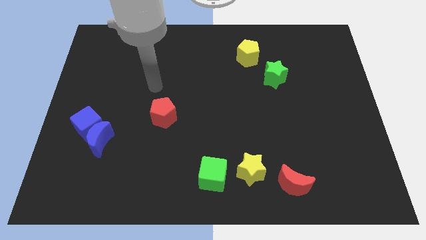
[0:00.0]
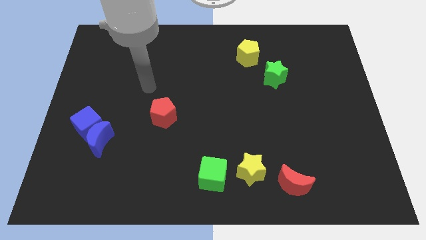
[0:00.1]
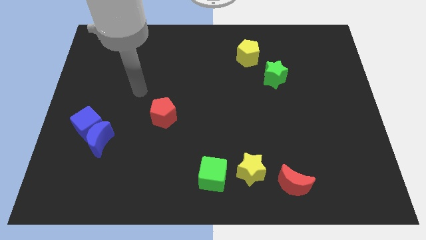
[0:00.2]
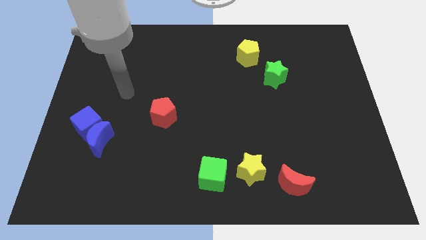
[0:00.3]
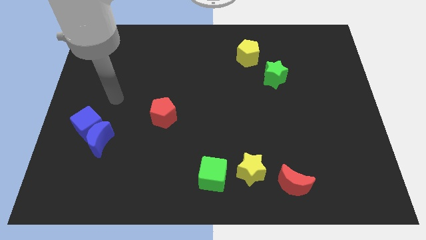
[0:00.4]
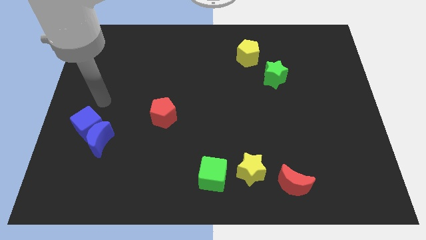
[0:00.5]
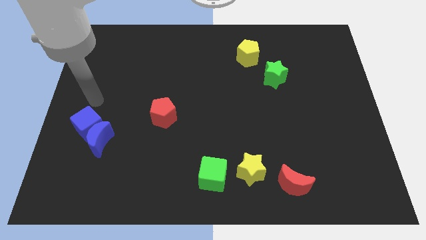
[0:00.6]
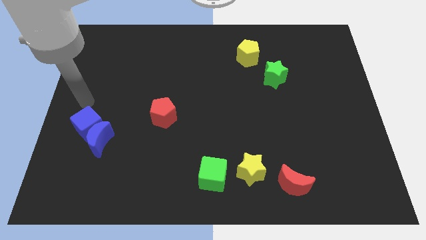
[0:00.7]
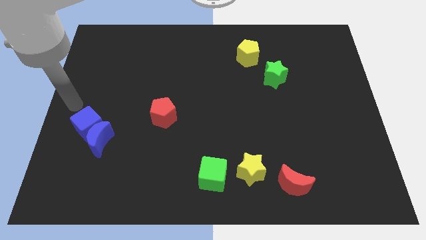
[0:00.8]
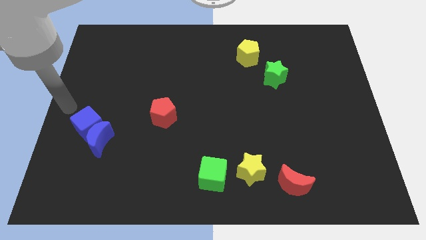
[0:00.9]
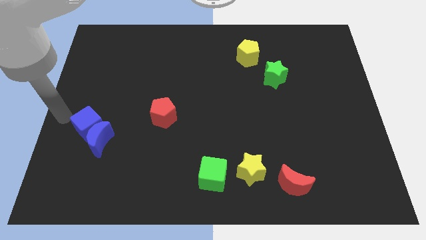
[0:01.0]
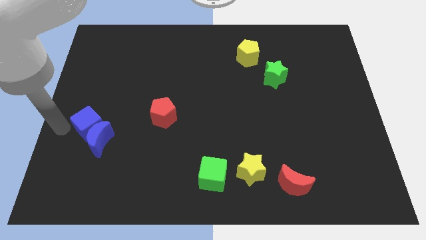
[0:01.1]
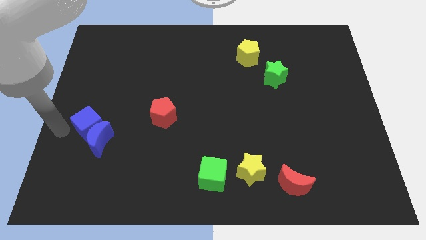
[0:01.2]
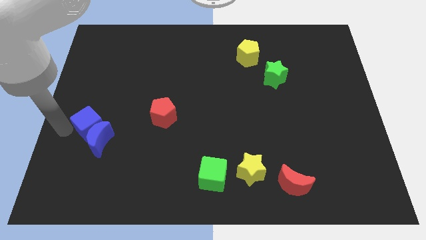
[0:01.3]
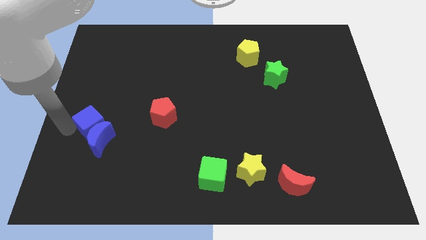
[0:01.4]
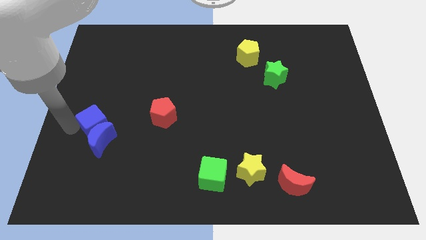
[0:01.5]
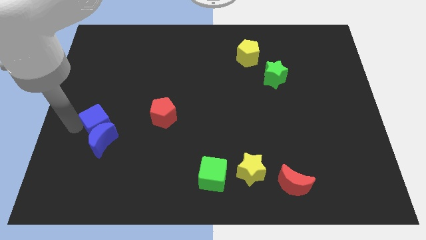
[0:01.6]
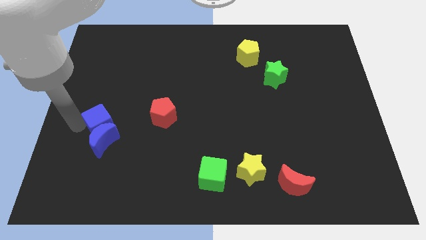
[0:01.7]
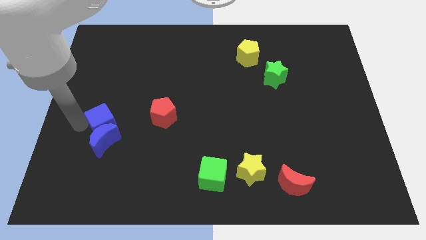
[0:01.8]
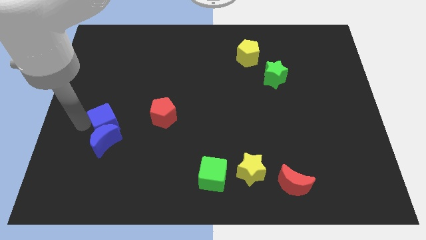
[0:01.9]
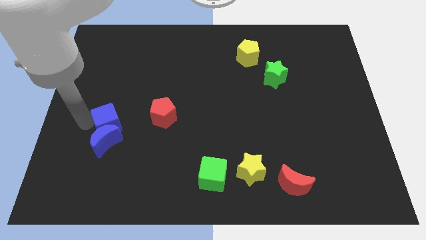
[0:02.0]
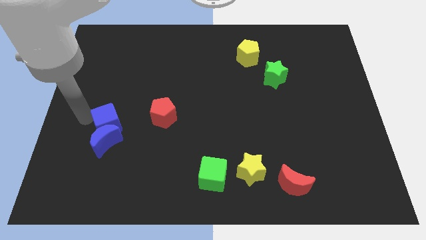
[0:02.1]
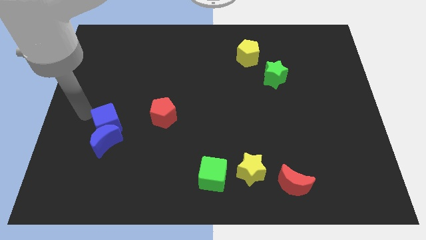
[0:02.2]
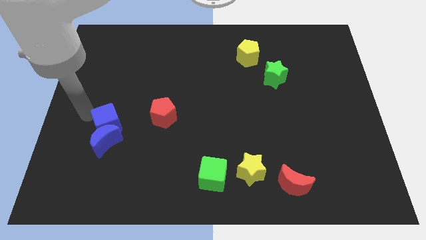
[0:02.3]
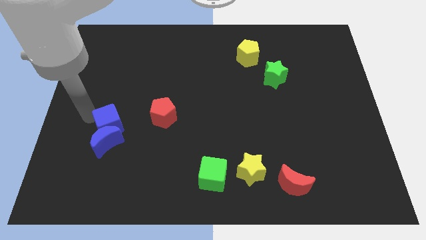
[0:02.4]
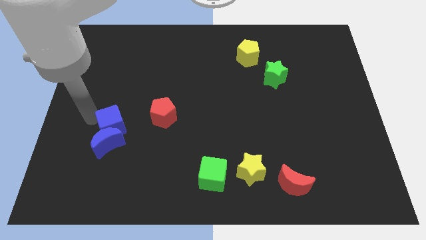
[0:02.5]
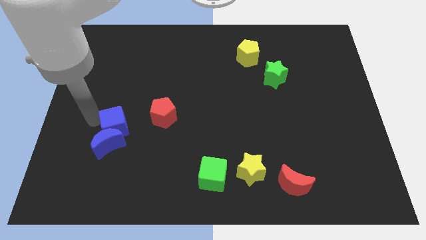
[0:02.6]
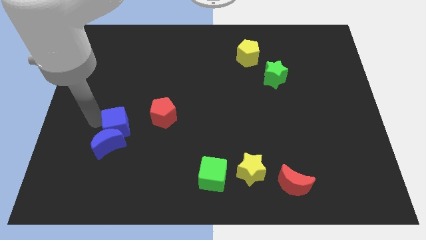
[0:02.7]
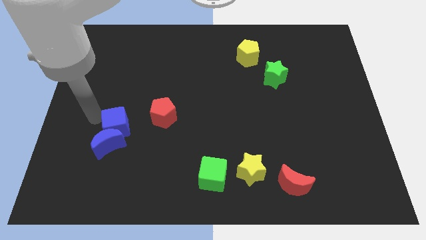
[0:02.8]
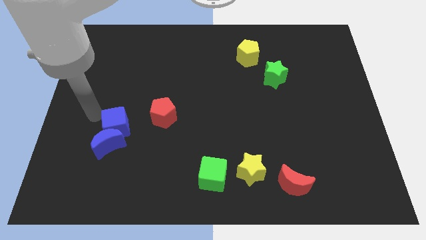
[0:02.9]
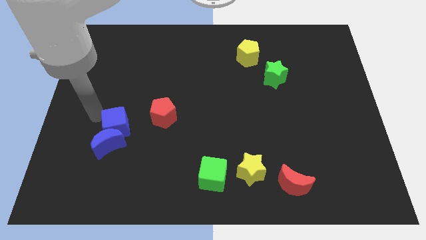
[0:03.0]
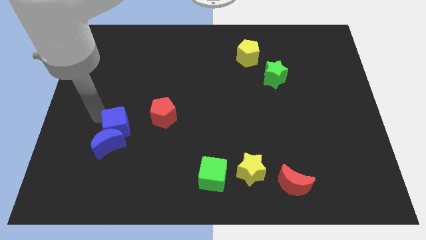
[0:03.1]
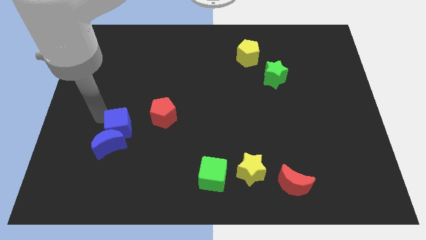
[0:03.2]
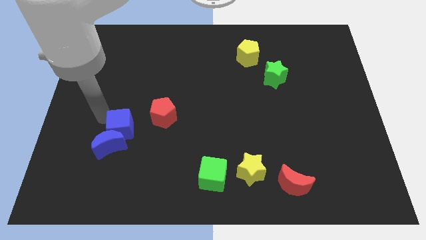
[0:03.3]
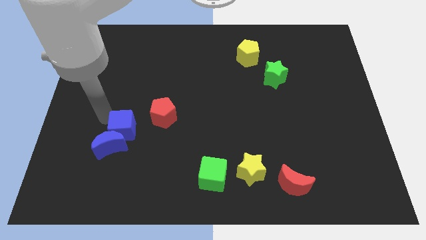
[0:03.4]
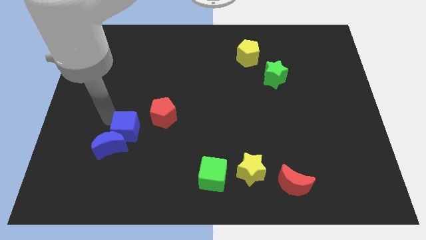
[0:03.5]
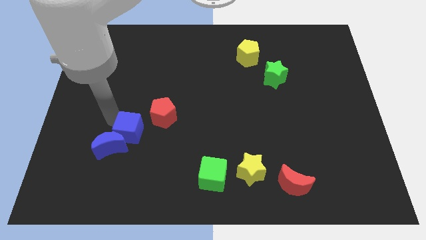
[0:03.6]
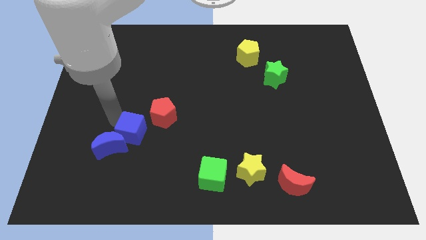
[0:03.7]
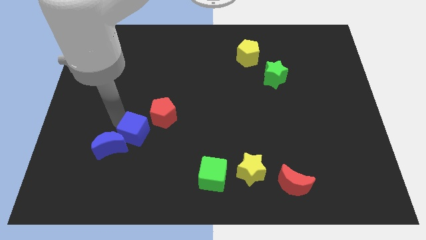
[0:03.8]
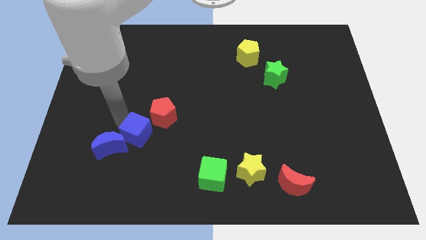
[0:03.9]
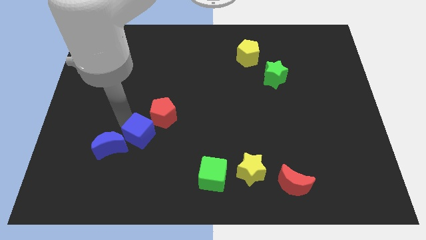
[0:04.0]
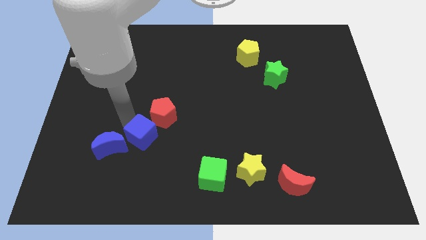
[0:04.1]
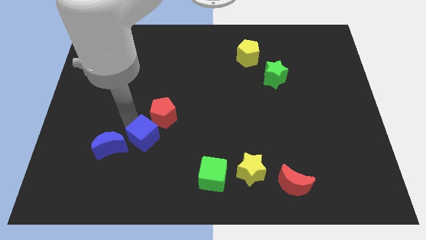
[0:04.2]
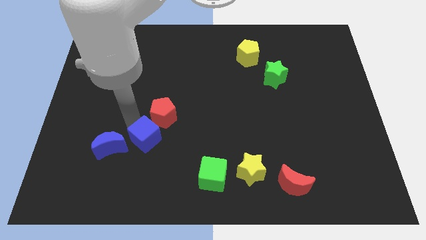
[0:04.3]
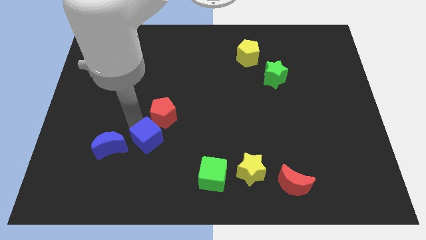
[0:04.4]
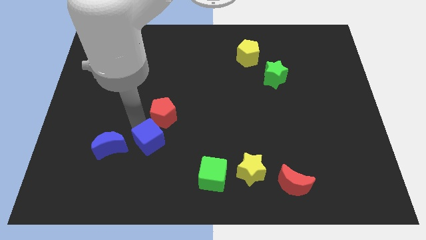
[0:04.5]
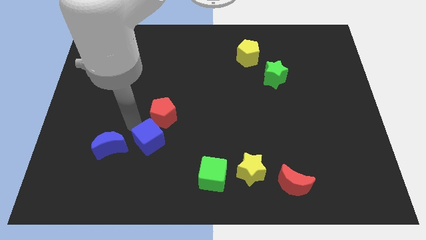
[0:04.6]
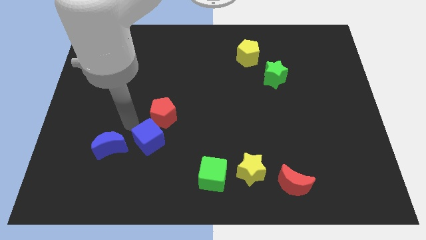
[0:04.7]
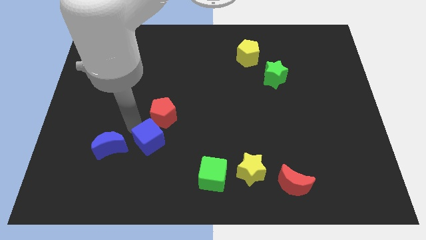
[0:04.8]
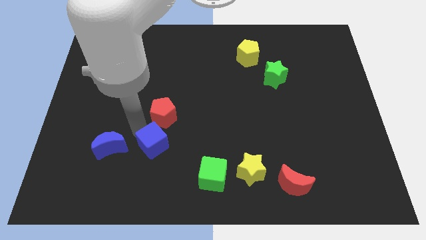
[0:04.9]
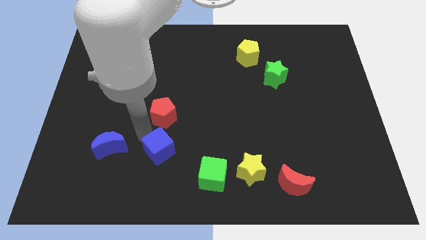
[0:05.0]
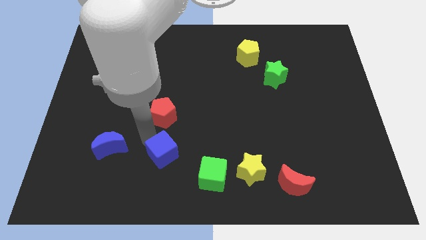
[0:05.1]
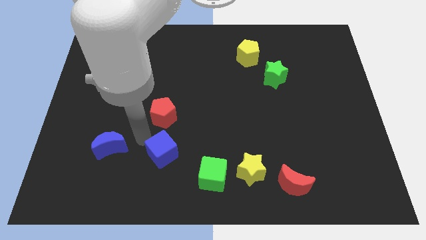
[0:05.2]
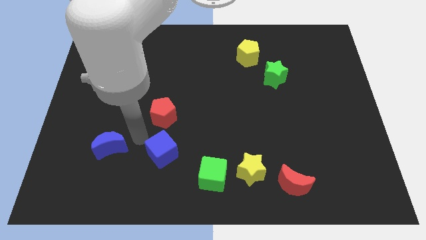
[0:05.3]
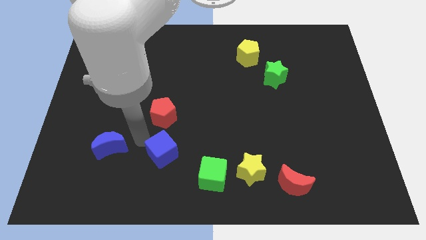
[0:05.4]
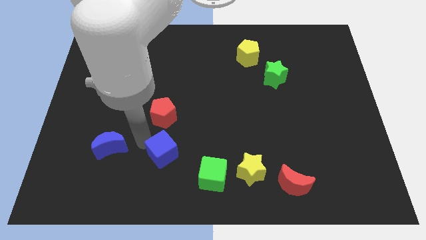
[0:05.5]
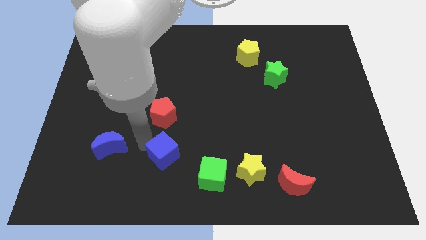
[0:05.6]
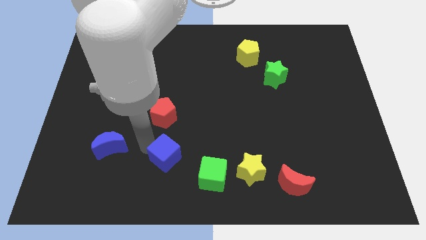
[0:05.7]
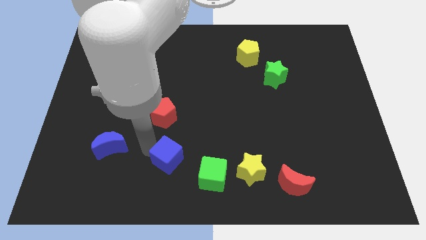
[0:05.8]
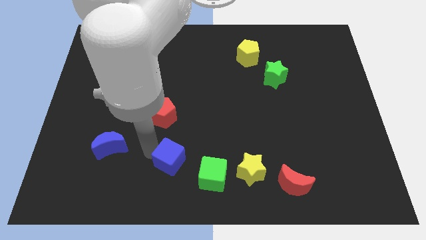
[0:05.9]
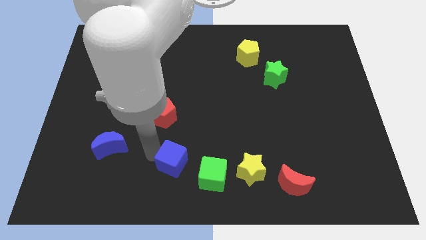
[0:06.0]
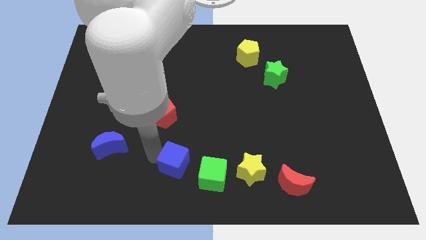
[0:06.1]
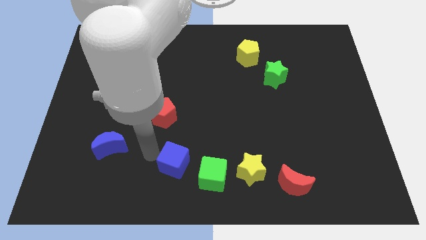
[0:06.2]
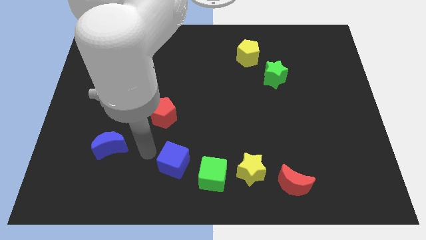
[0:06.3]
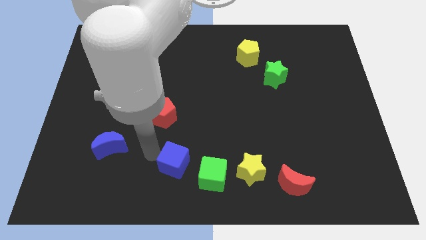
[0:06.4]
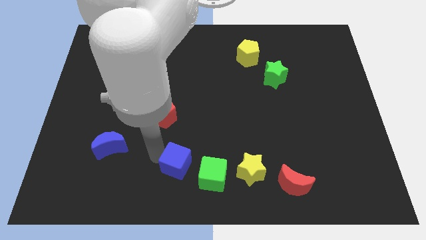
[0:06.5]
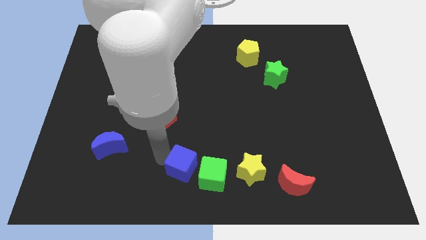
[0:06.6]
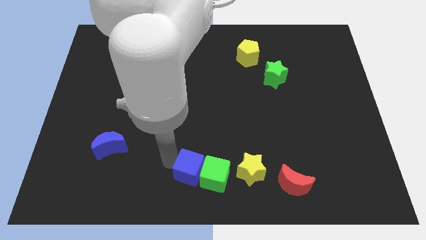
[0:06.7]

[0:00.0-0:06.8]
put the blue cube close to the green cube

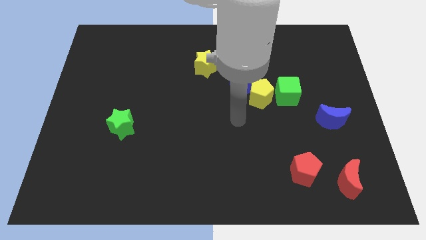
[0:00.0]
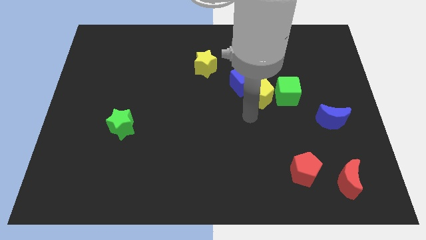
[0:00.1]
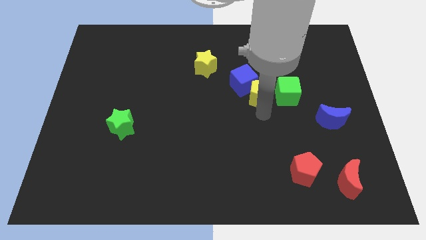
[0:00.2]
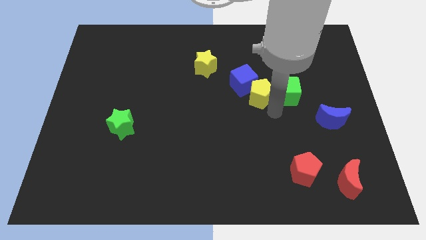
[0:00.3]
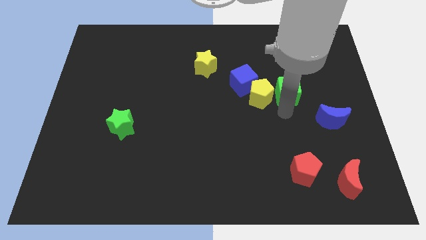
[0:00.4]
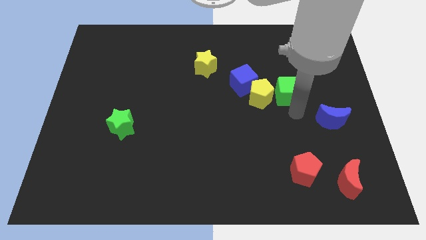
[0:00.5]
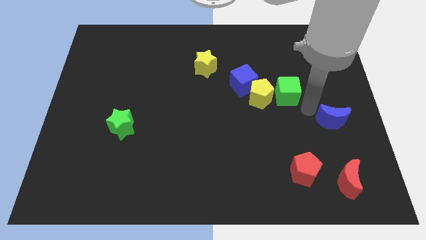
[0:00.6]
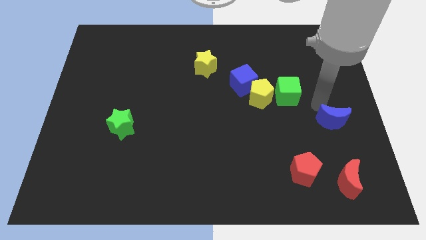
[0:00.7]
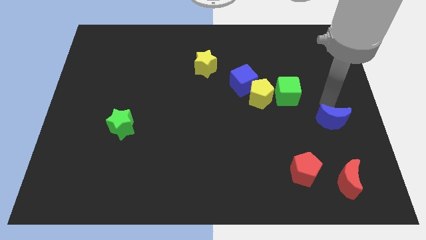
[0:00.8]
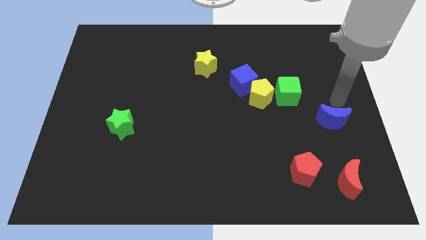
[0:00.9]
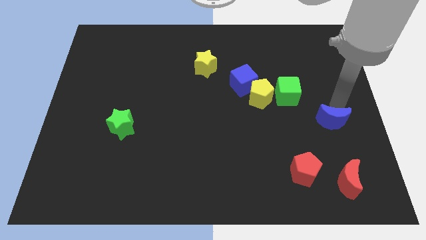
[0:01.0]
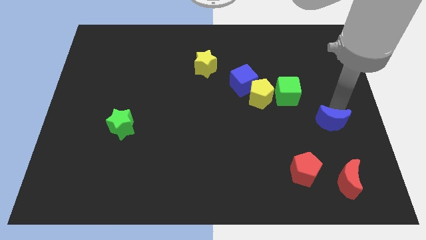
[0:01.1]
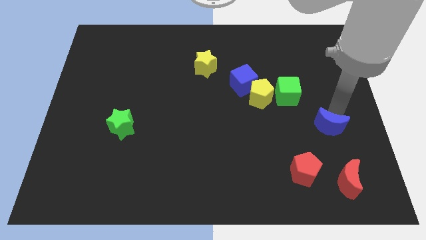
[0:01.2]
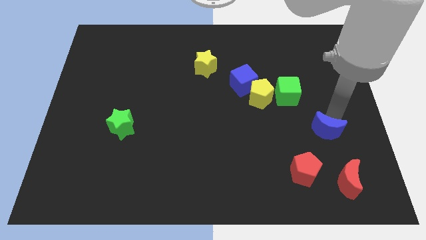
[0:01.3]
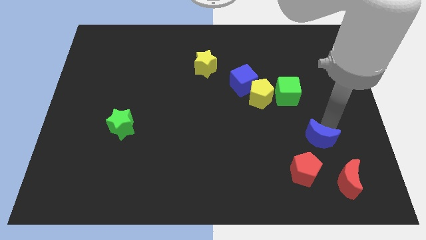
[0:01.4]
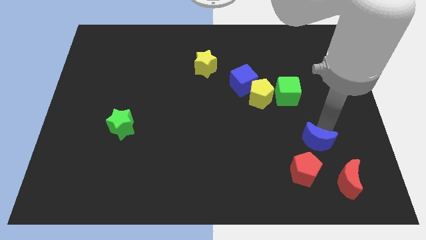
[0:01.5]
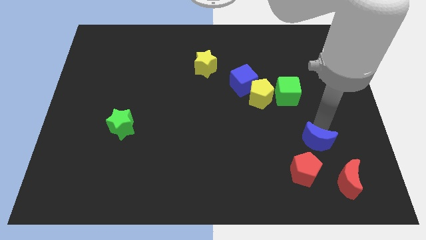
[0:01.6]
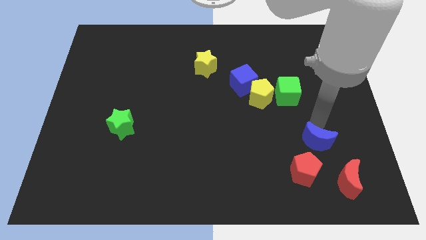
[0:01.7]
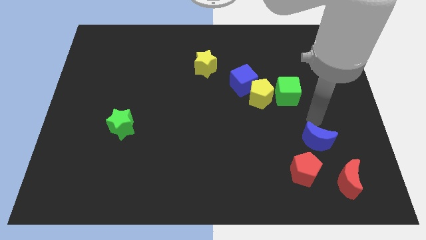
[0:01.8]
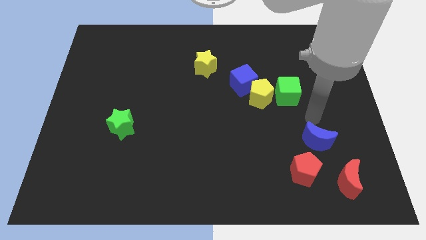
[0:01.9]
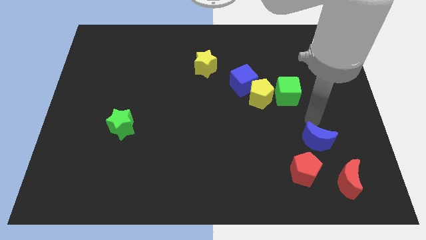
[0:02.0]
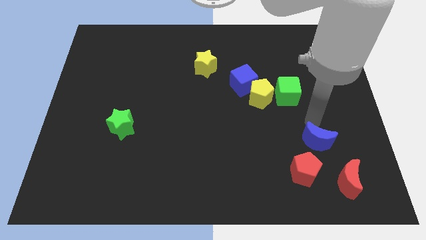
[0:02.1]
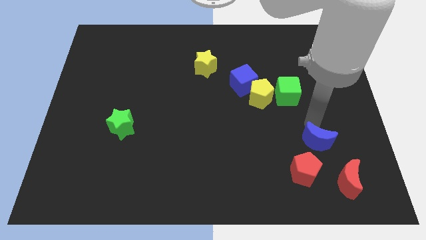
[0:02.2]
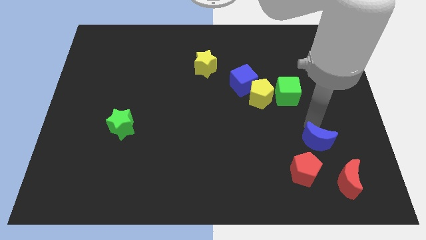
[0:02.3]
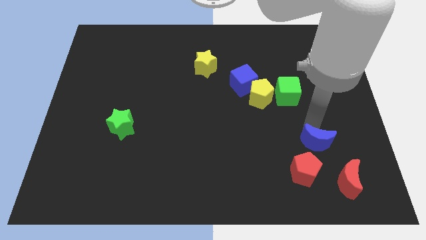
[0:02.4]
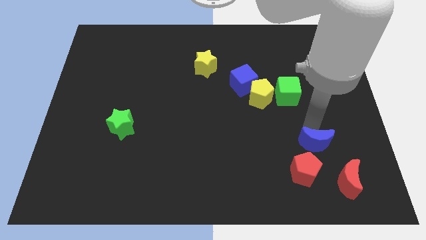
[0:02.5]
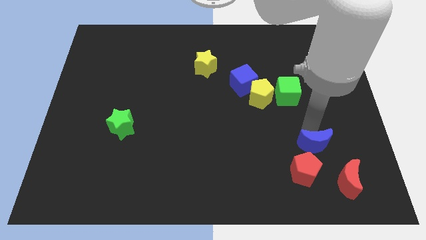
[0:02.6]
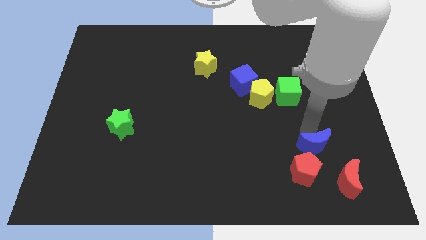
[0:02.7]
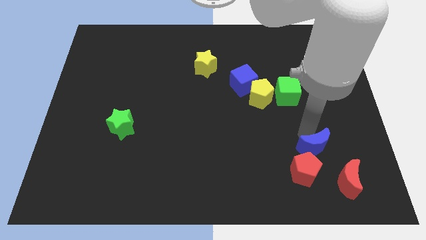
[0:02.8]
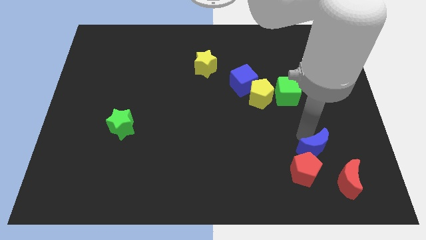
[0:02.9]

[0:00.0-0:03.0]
slide the blue moon close to the red pentagon
